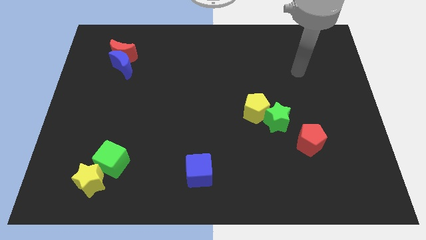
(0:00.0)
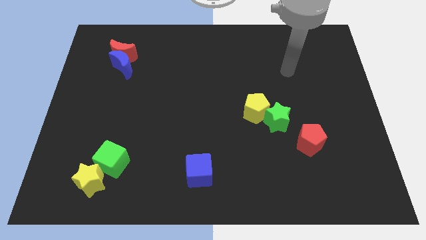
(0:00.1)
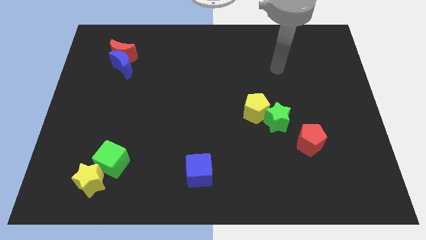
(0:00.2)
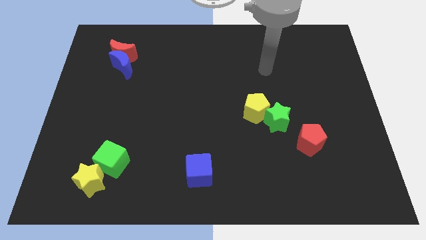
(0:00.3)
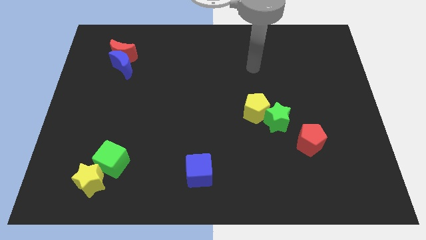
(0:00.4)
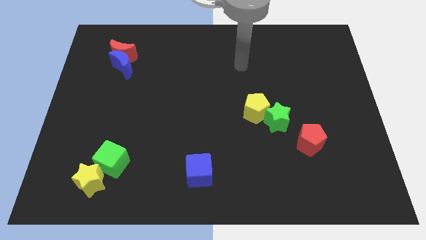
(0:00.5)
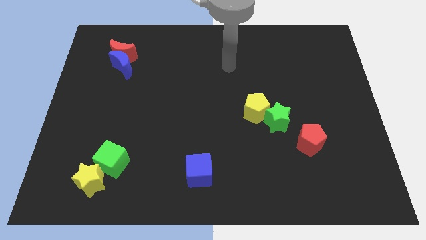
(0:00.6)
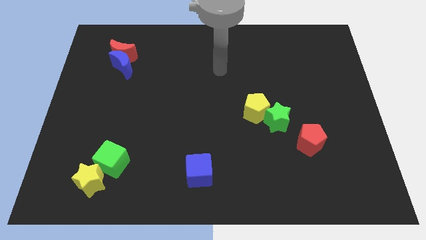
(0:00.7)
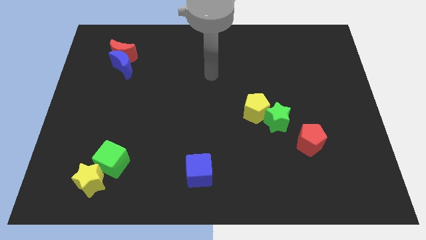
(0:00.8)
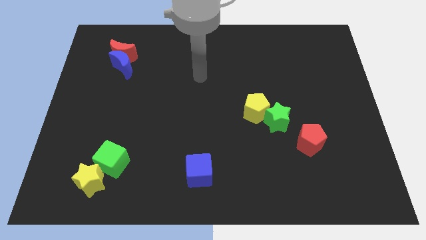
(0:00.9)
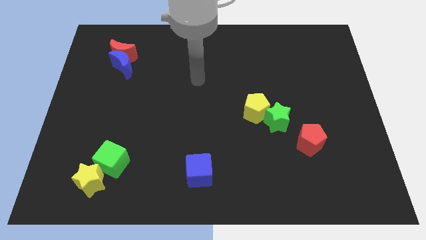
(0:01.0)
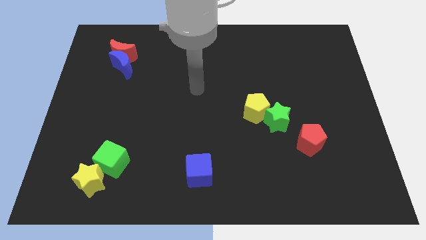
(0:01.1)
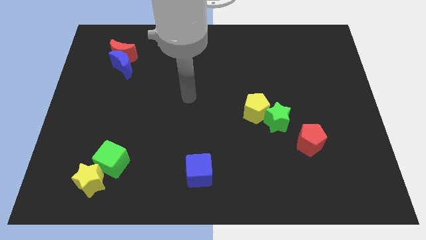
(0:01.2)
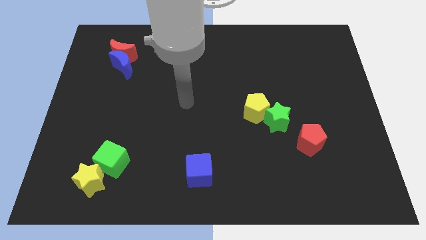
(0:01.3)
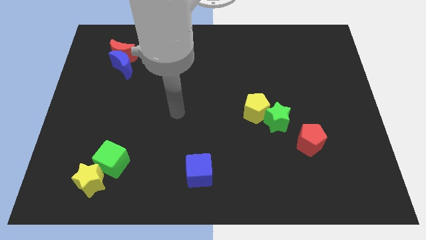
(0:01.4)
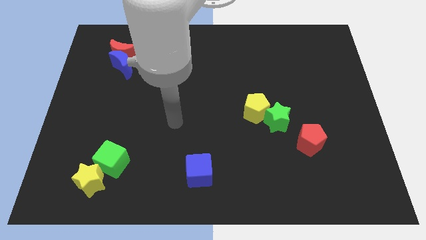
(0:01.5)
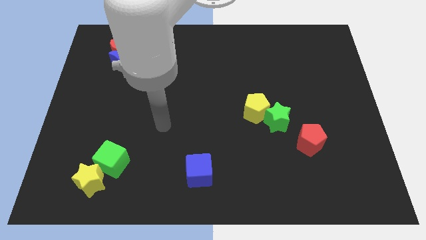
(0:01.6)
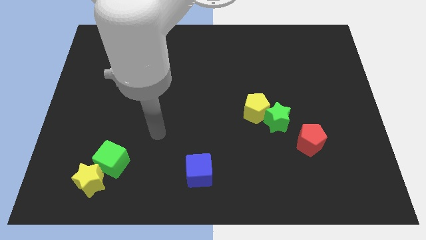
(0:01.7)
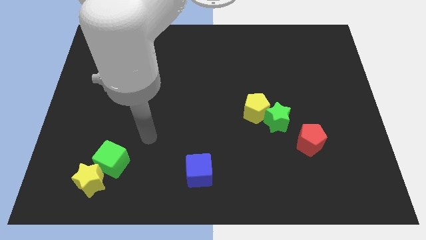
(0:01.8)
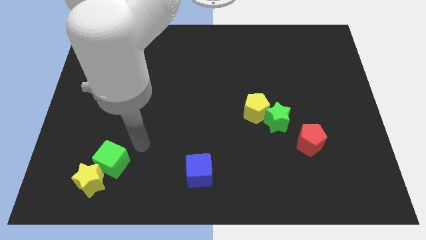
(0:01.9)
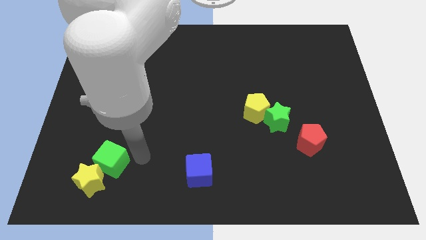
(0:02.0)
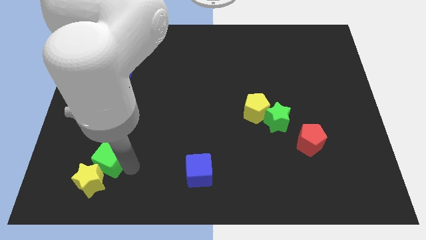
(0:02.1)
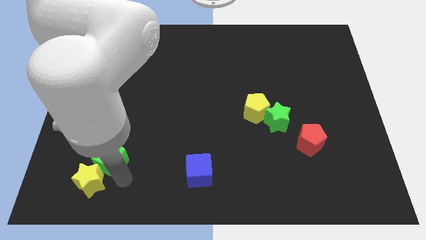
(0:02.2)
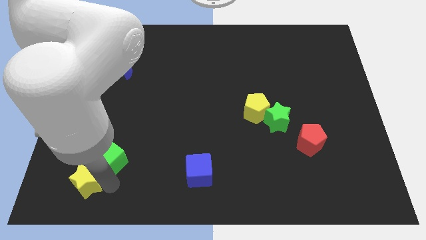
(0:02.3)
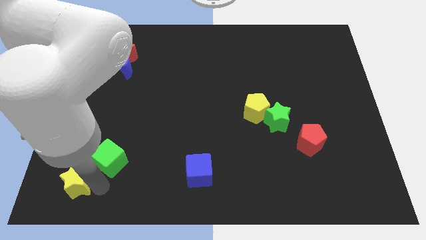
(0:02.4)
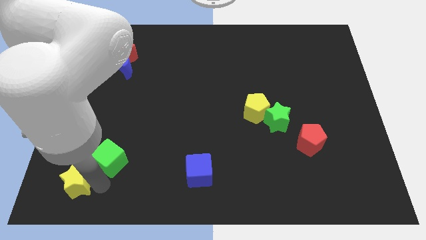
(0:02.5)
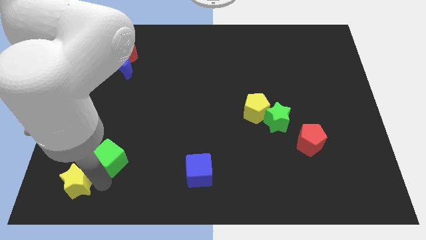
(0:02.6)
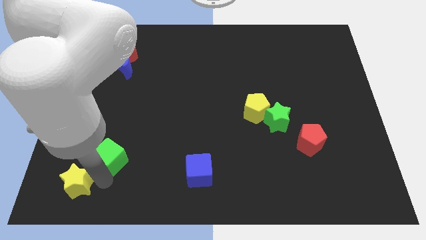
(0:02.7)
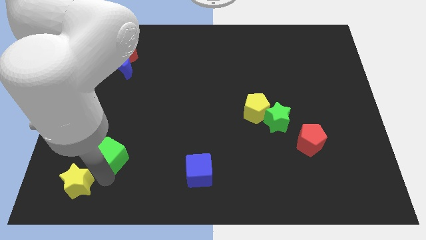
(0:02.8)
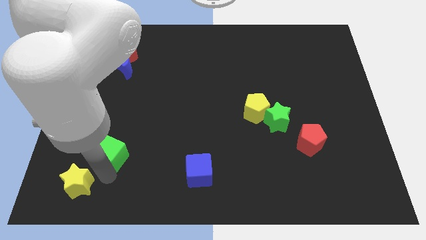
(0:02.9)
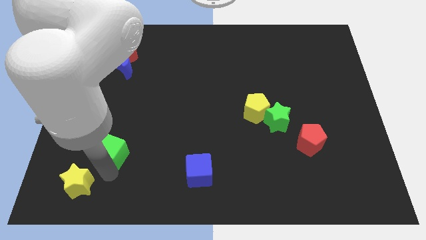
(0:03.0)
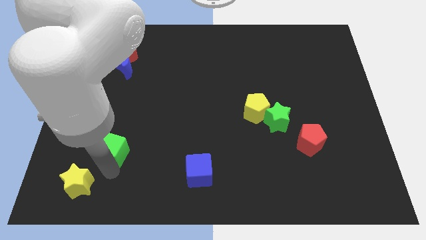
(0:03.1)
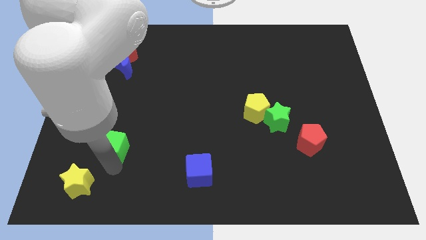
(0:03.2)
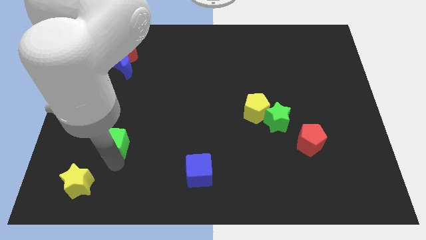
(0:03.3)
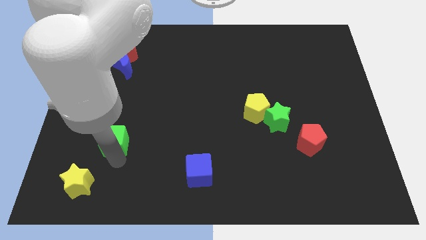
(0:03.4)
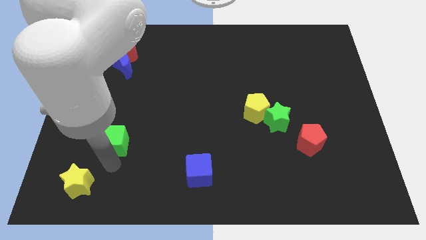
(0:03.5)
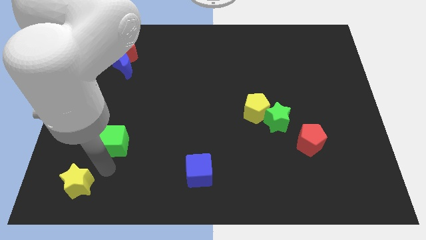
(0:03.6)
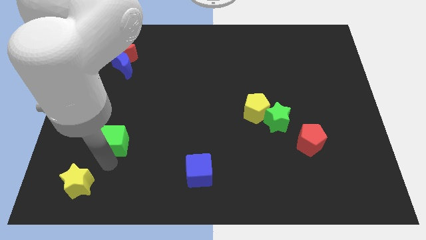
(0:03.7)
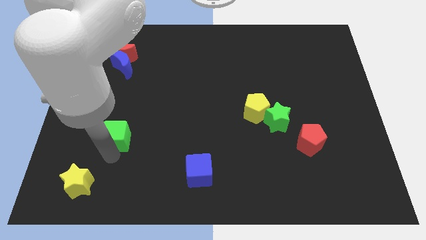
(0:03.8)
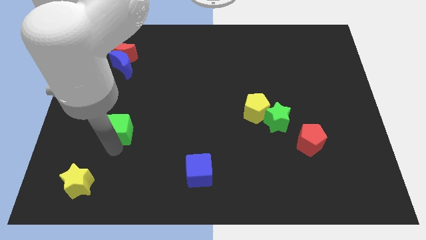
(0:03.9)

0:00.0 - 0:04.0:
push the green cube upwards slightly

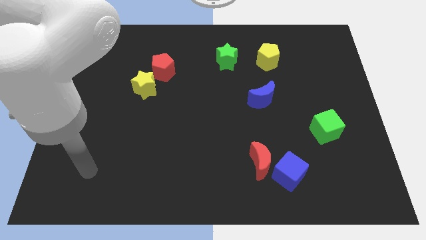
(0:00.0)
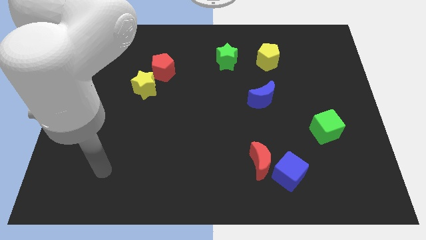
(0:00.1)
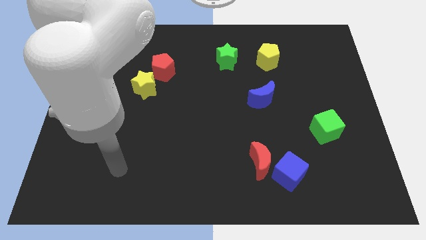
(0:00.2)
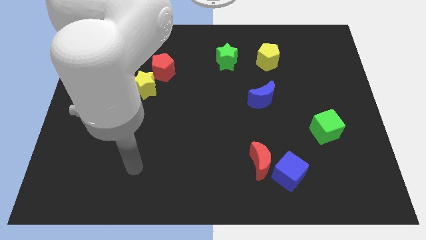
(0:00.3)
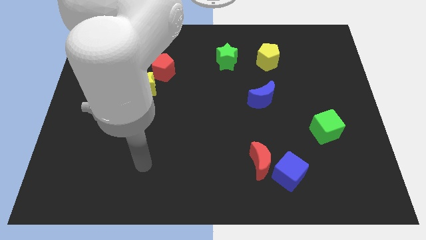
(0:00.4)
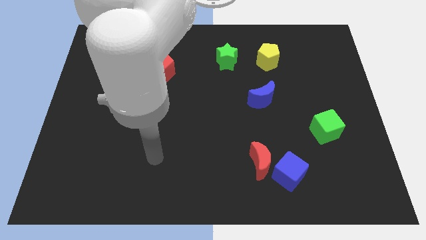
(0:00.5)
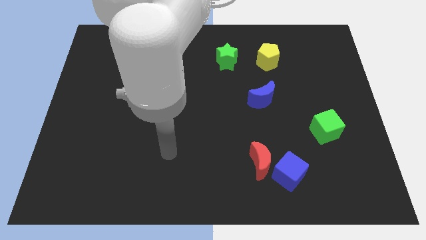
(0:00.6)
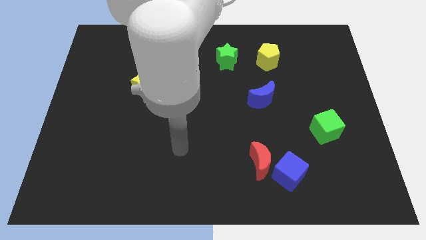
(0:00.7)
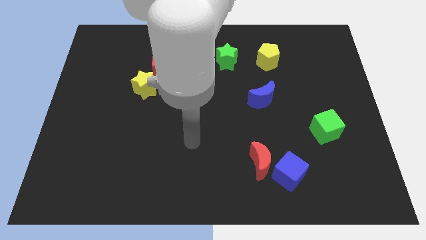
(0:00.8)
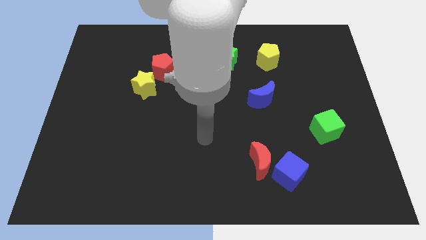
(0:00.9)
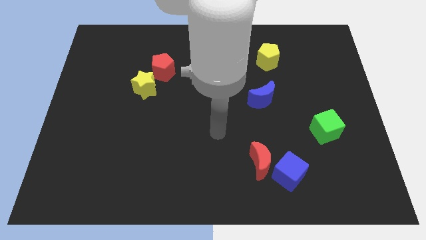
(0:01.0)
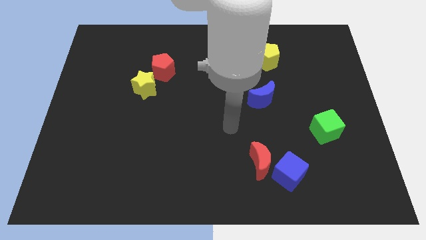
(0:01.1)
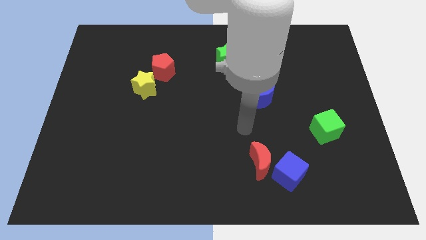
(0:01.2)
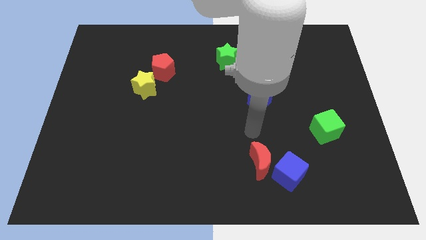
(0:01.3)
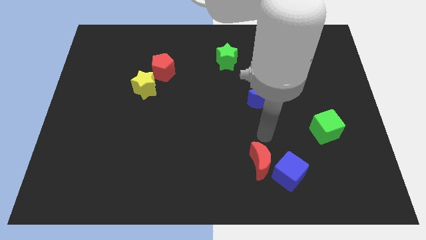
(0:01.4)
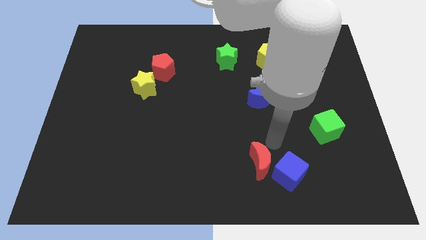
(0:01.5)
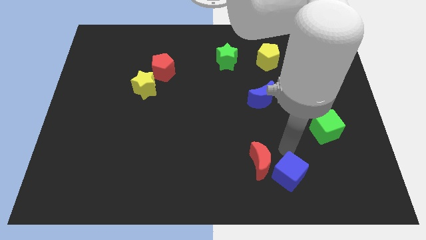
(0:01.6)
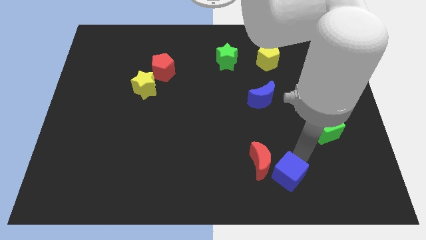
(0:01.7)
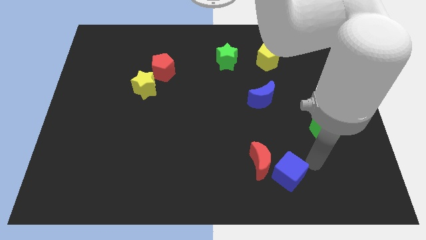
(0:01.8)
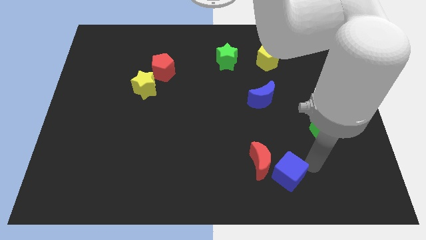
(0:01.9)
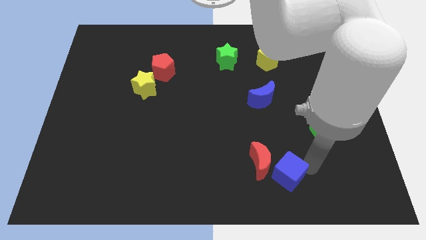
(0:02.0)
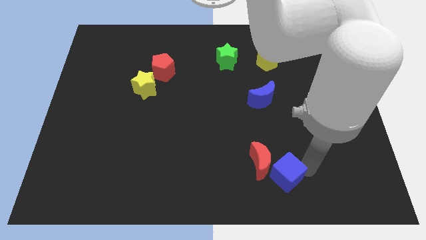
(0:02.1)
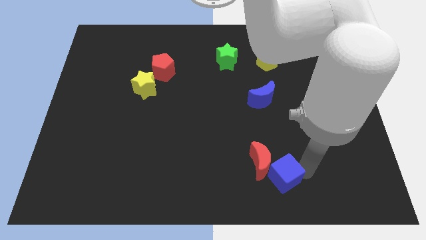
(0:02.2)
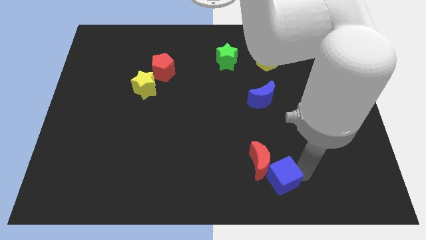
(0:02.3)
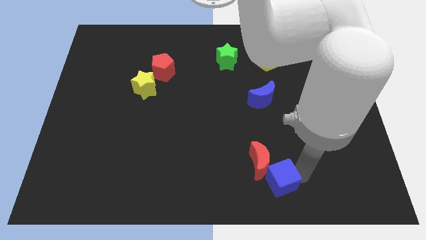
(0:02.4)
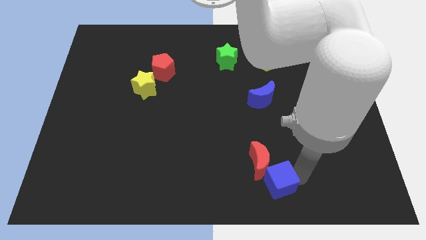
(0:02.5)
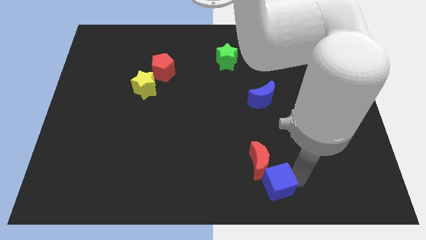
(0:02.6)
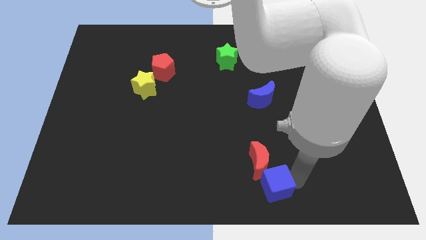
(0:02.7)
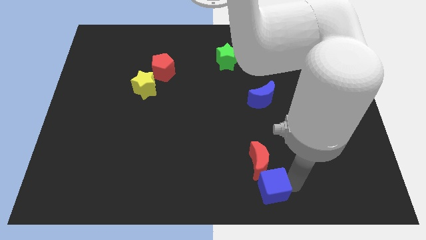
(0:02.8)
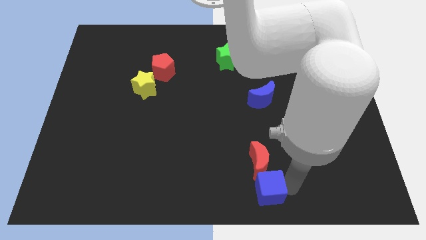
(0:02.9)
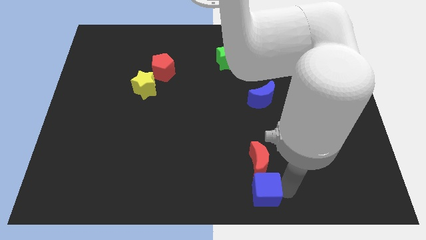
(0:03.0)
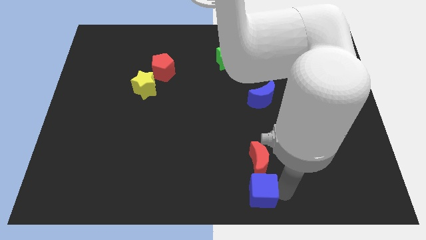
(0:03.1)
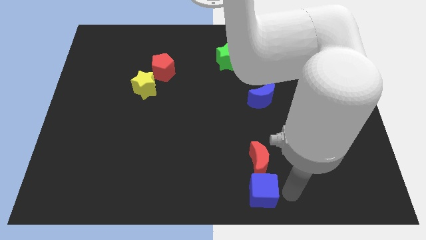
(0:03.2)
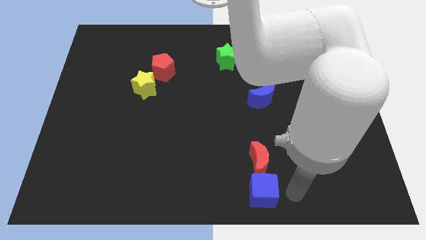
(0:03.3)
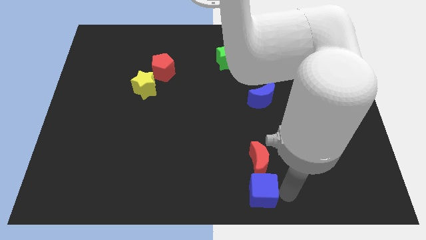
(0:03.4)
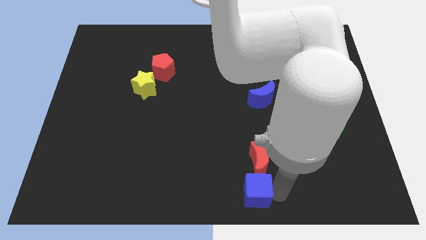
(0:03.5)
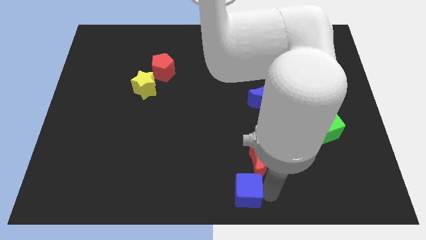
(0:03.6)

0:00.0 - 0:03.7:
slide the blue cube slightly left

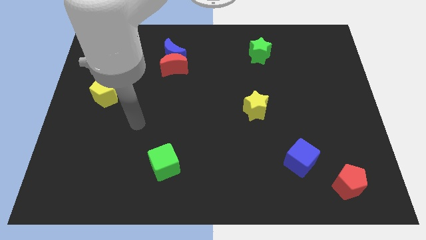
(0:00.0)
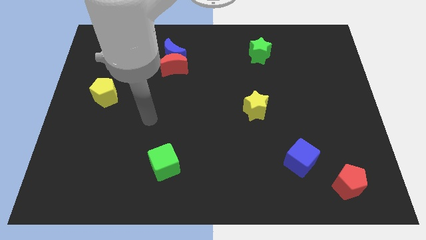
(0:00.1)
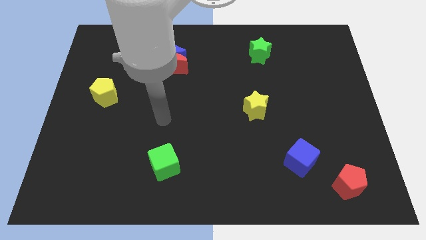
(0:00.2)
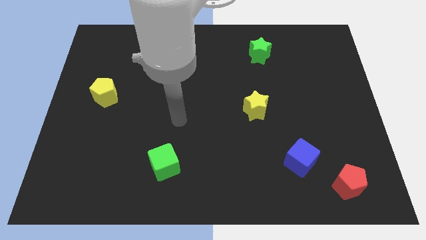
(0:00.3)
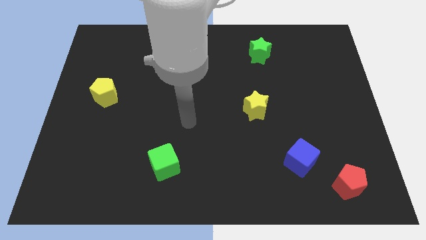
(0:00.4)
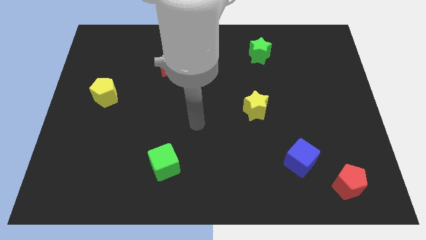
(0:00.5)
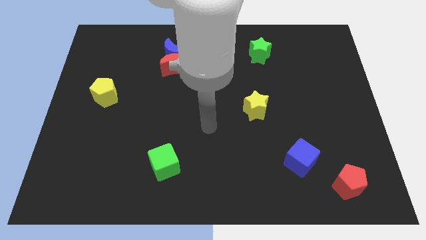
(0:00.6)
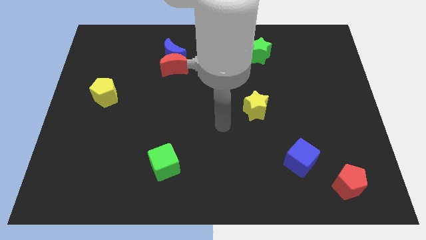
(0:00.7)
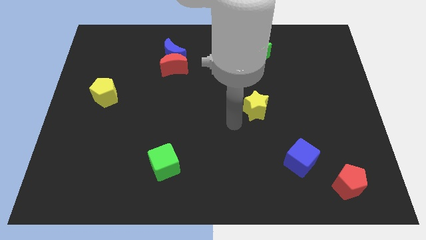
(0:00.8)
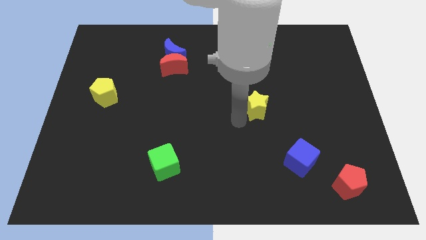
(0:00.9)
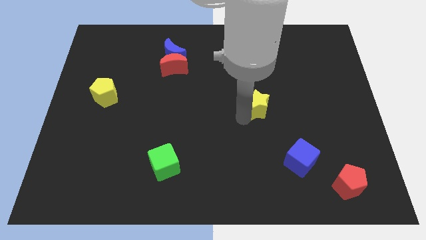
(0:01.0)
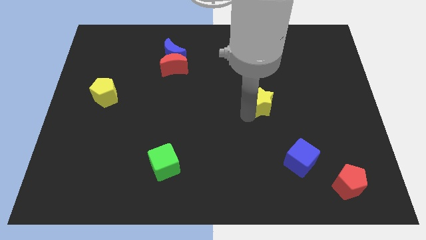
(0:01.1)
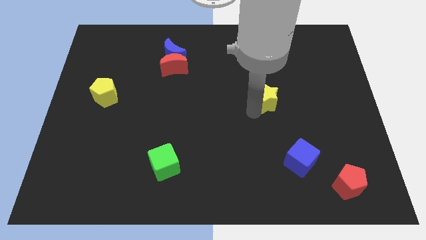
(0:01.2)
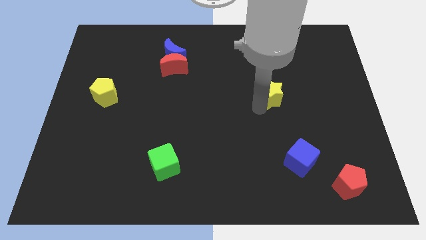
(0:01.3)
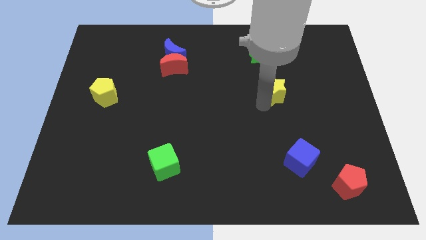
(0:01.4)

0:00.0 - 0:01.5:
push the yellow star slightly upwards and right diagonally
